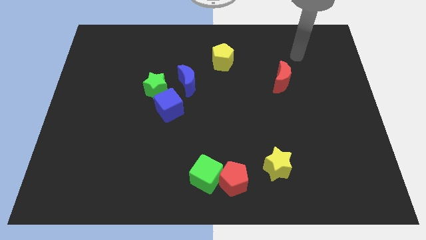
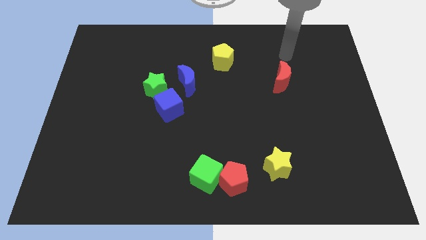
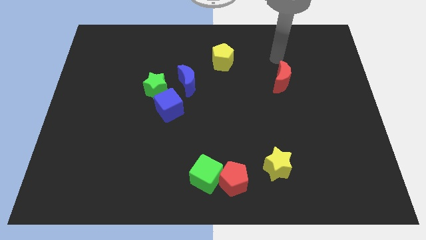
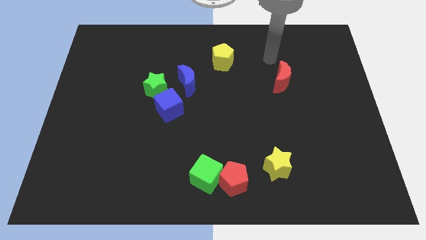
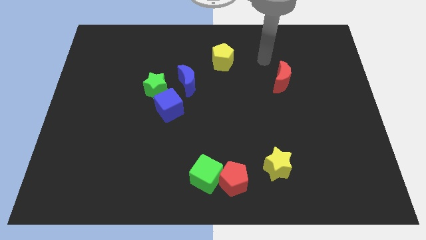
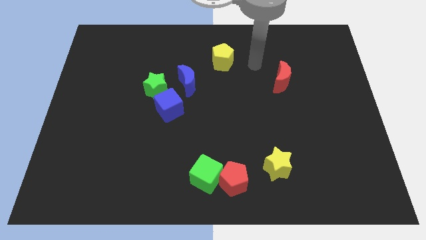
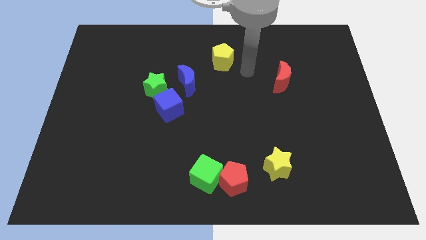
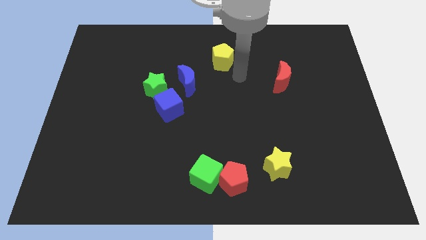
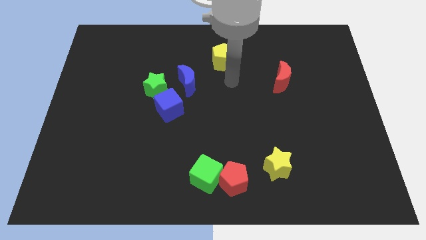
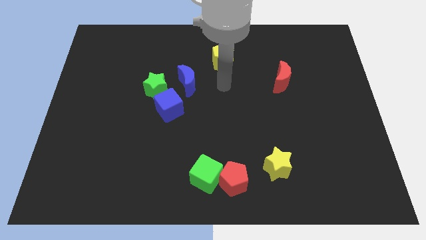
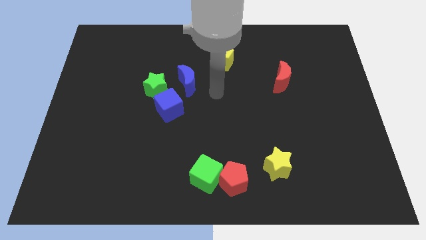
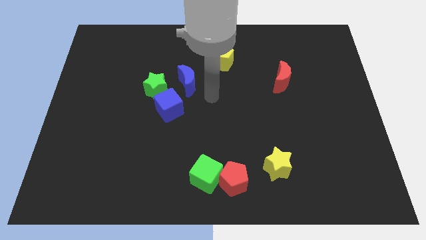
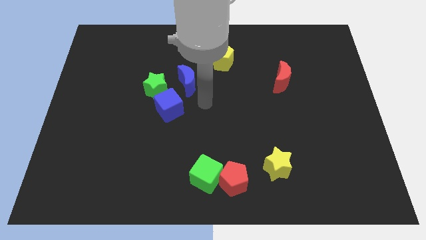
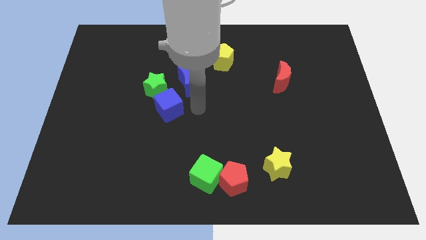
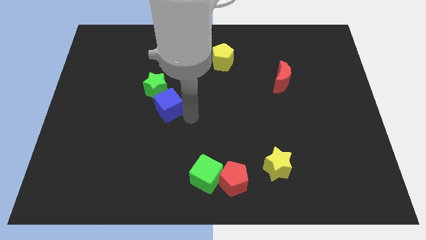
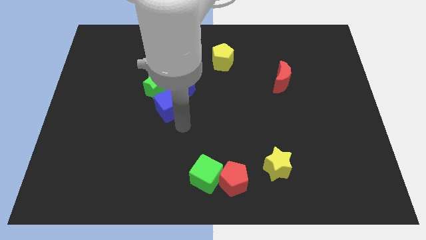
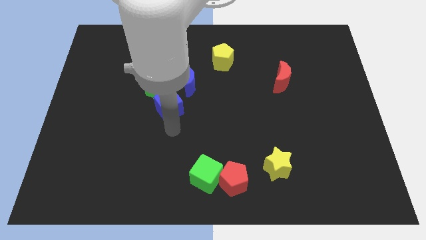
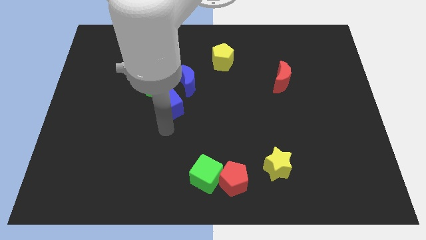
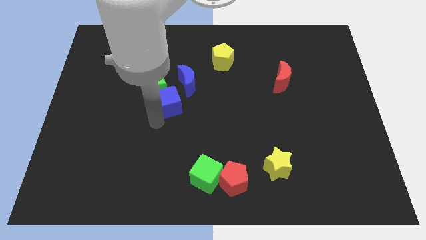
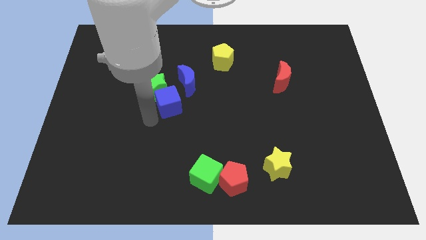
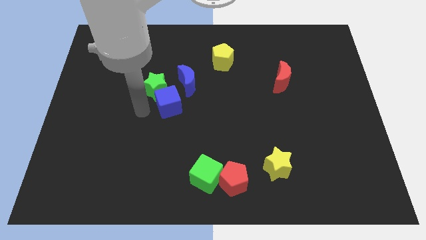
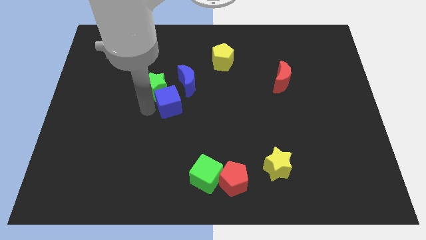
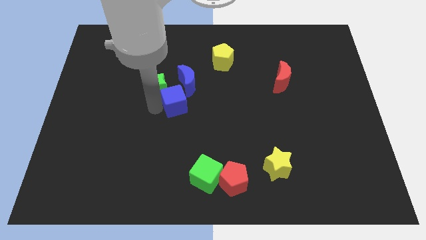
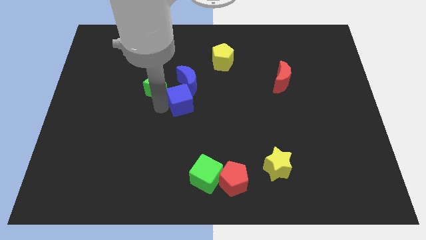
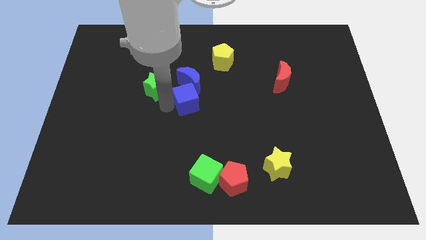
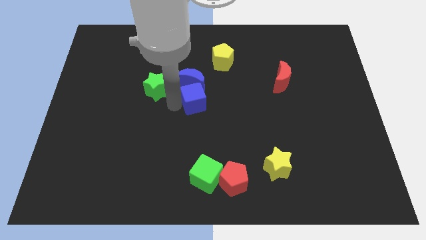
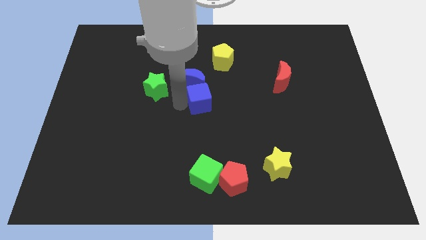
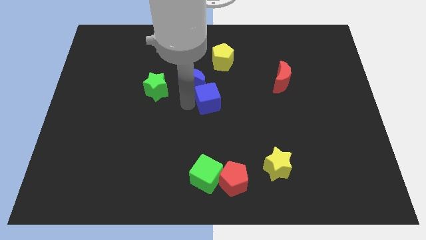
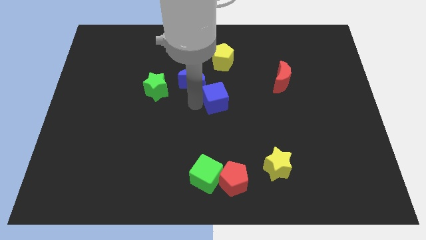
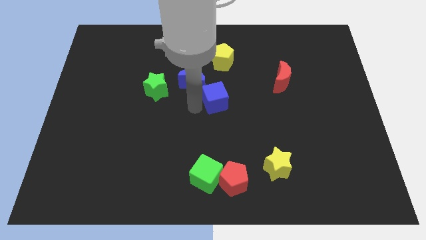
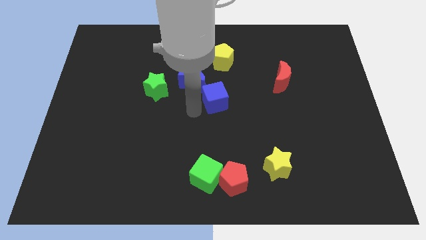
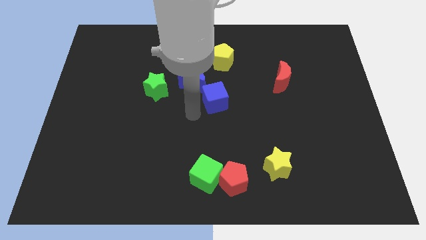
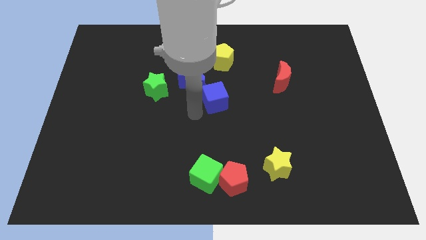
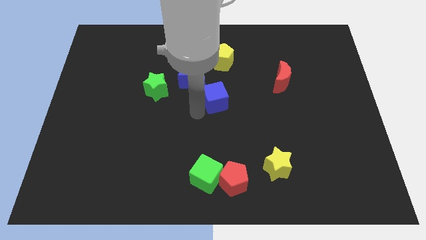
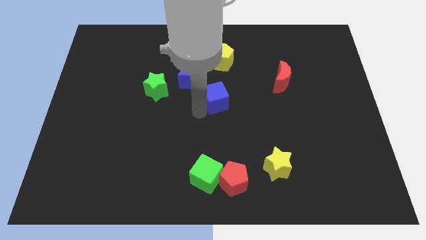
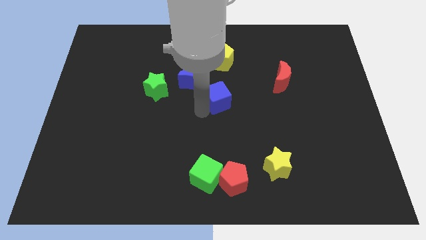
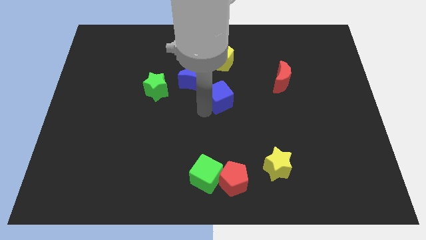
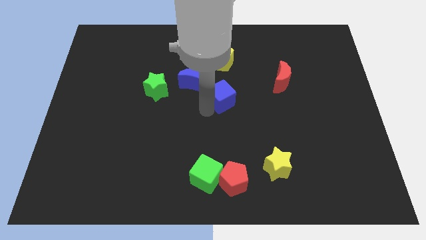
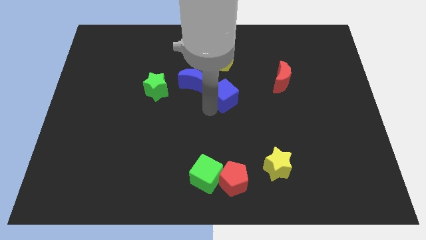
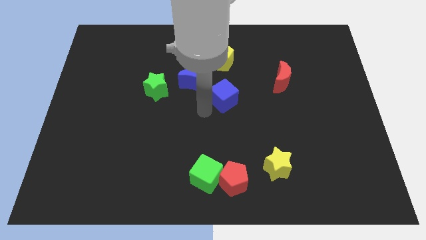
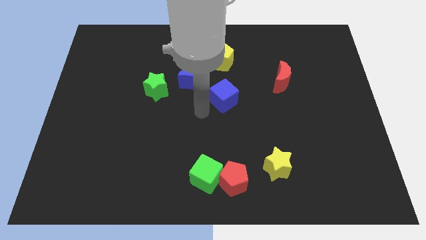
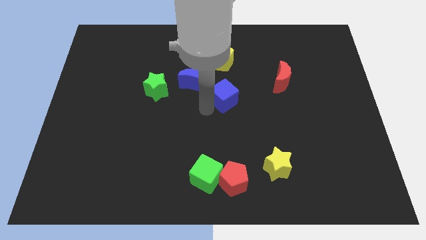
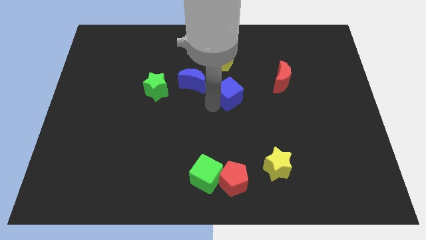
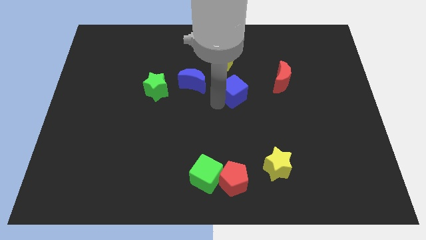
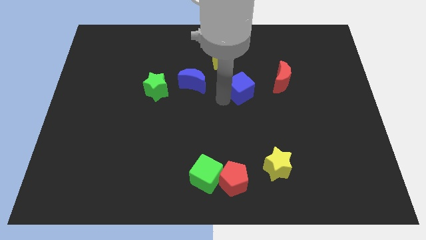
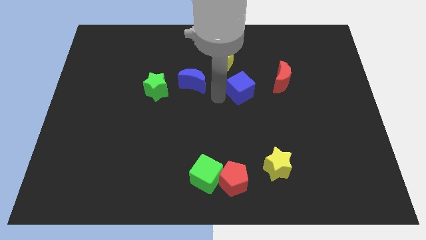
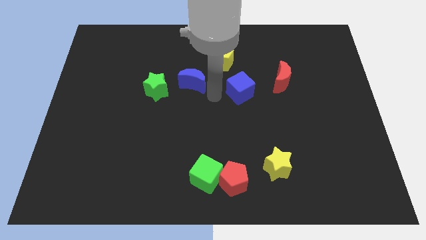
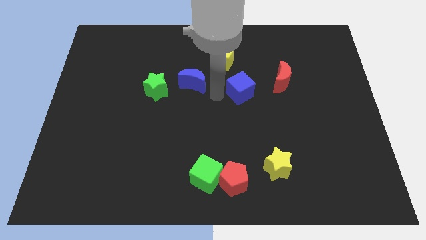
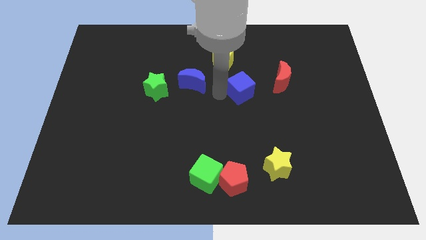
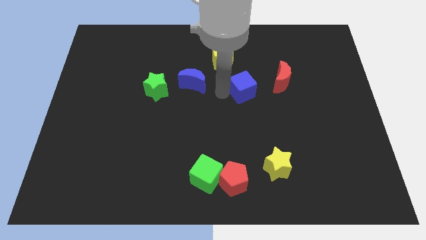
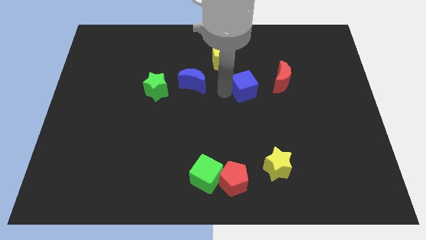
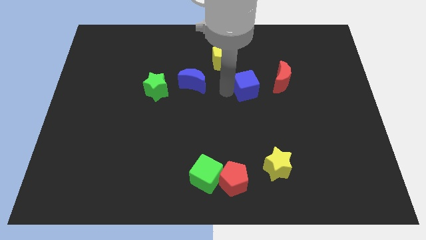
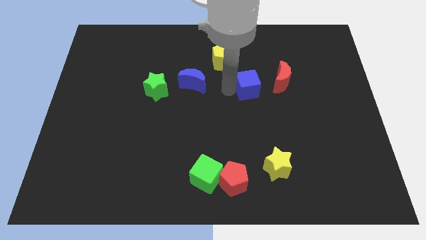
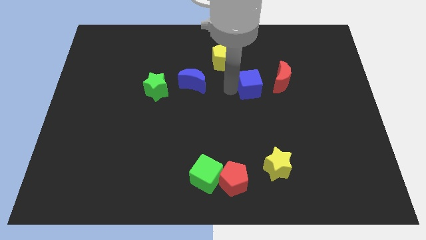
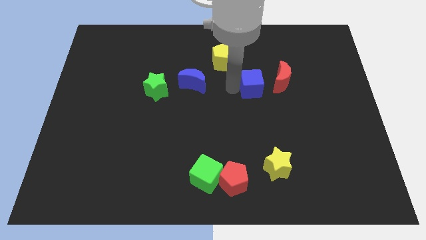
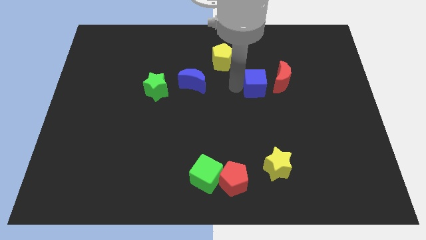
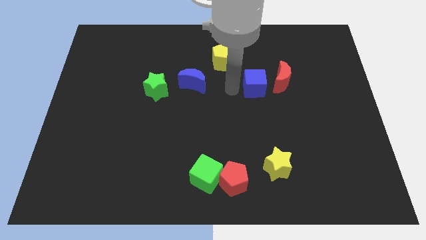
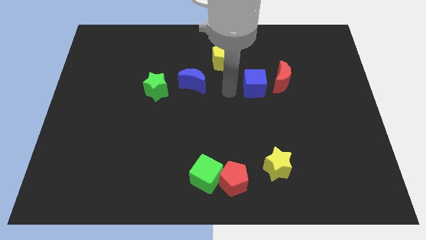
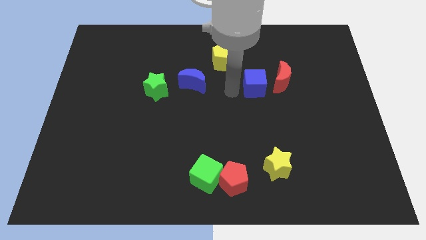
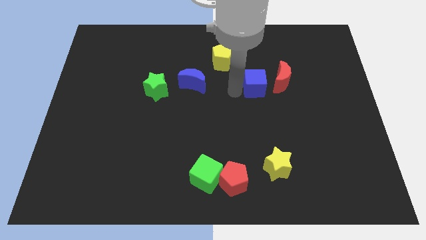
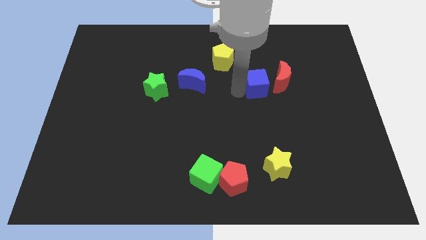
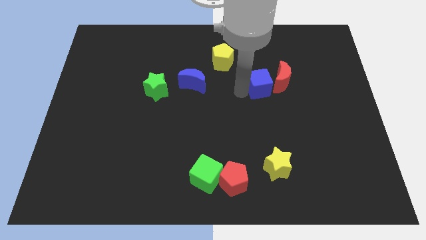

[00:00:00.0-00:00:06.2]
slide the blue cube to the red moon

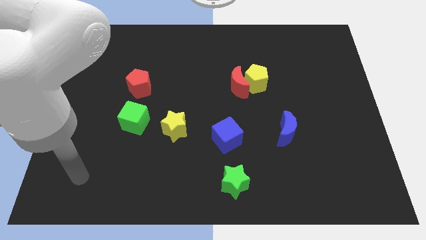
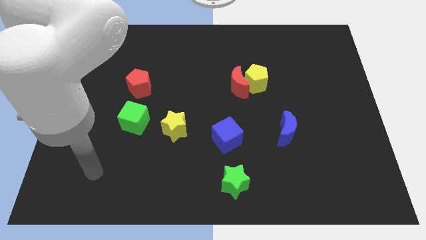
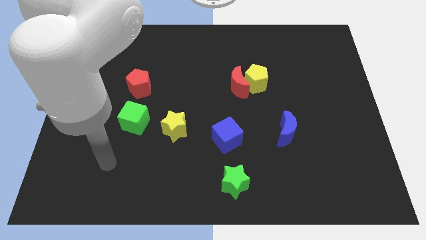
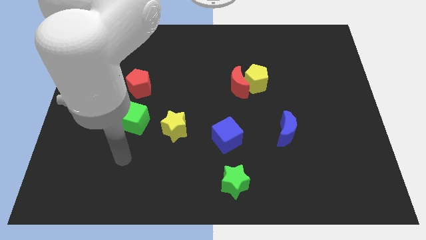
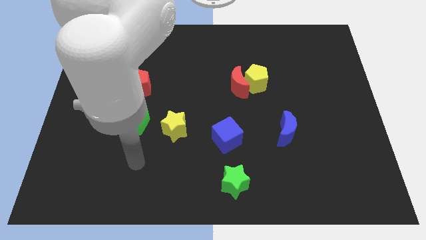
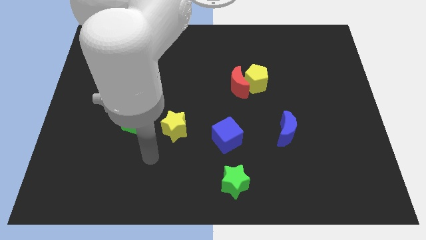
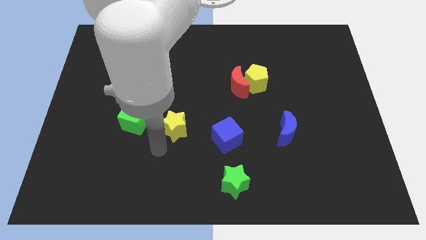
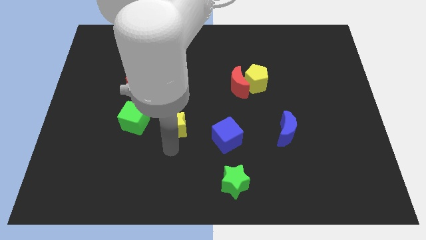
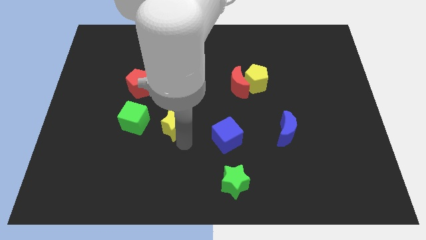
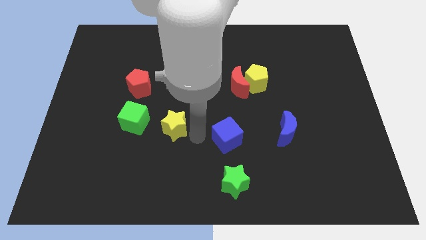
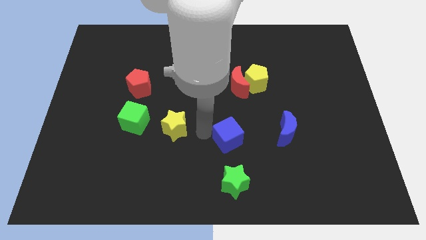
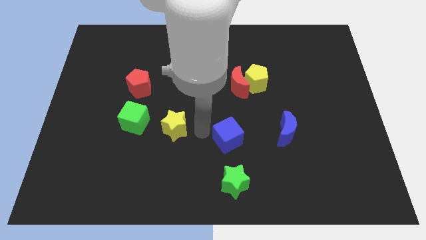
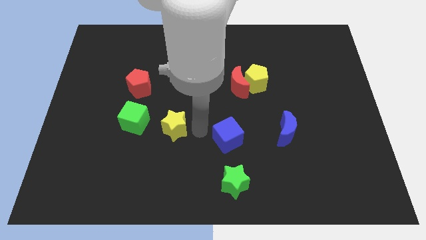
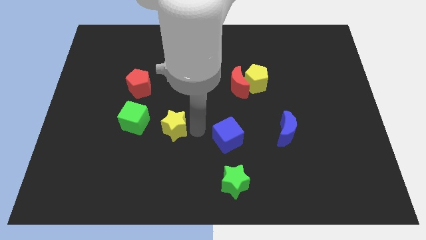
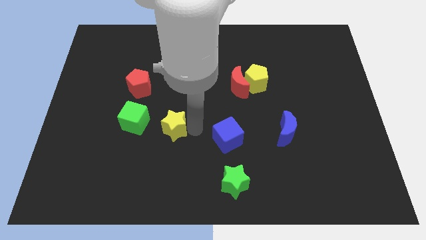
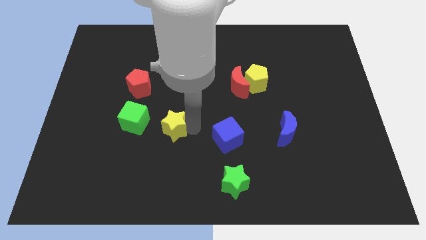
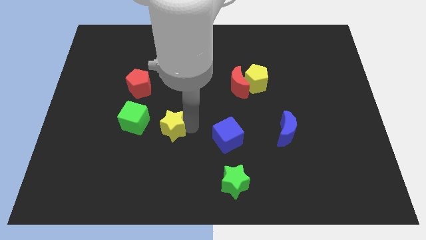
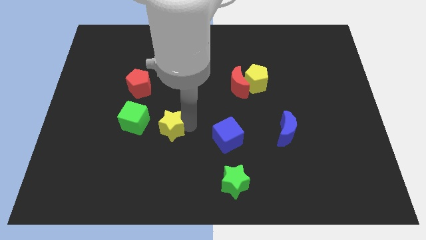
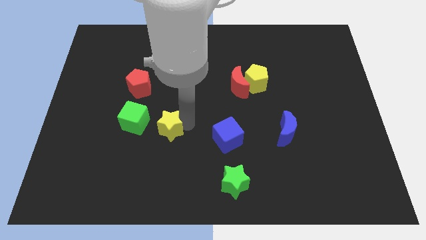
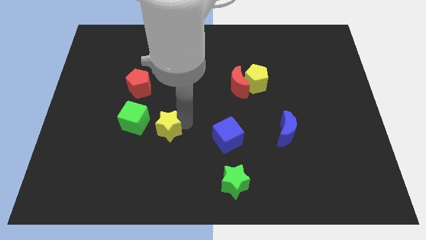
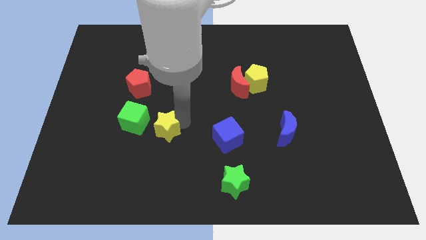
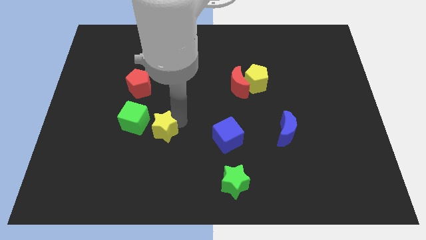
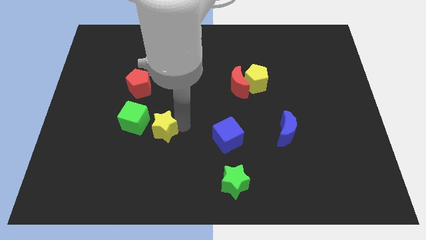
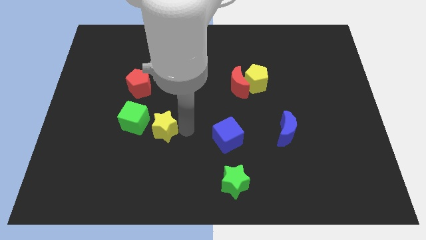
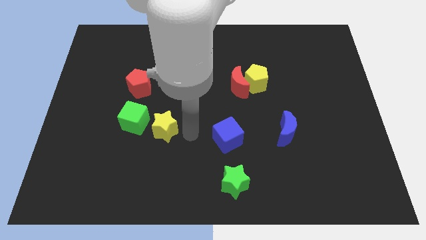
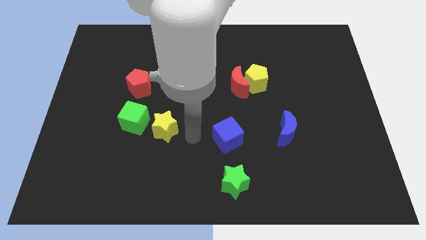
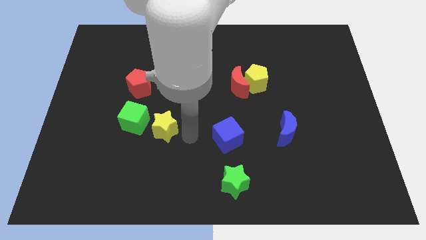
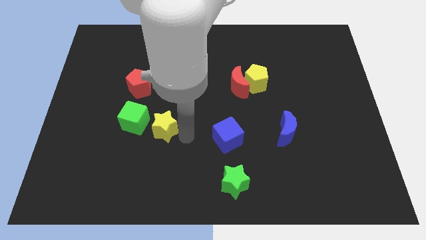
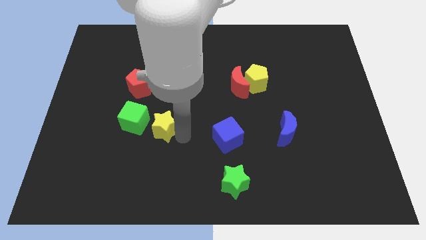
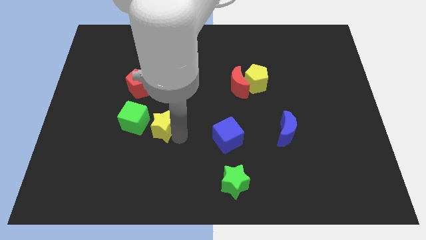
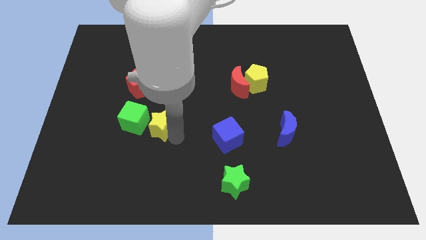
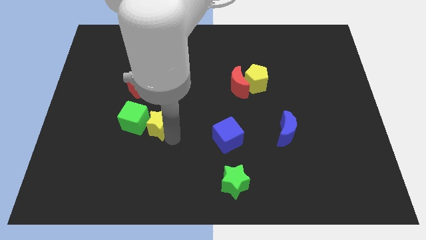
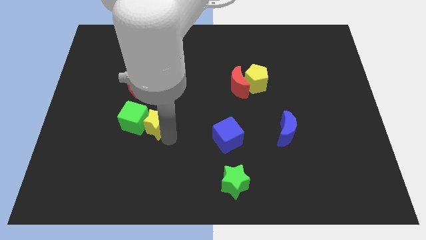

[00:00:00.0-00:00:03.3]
push the yellow star towards the green cube
